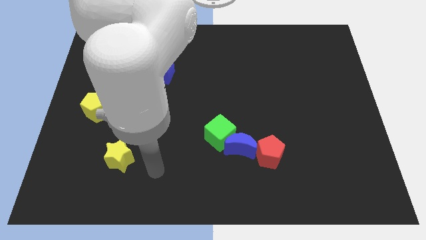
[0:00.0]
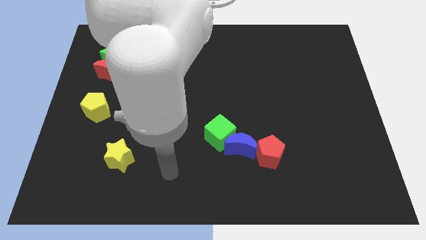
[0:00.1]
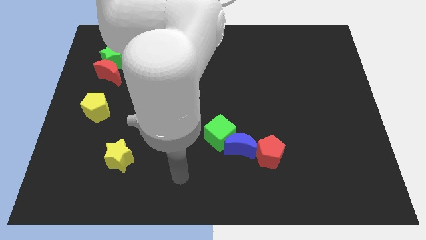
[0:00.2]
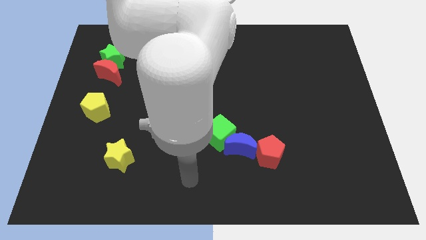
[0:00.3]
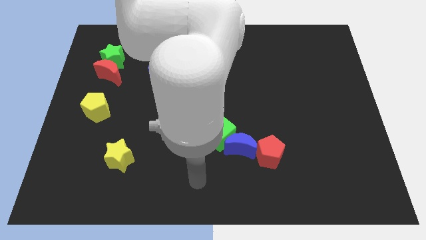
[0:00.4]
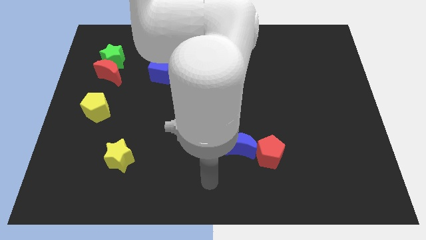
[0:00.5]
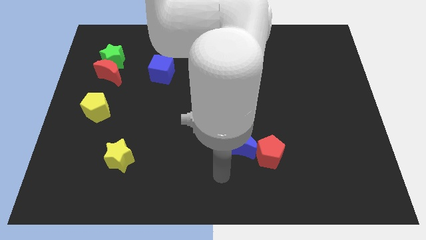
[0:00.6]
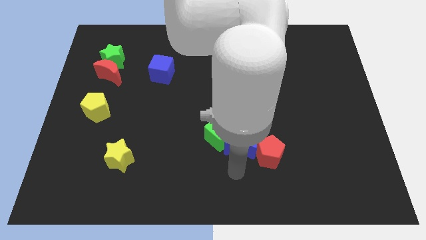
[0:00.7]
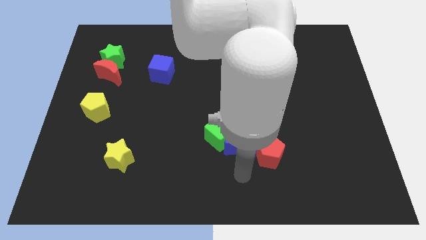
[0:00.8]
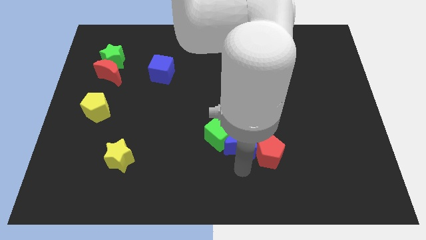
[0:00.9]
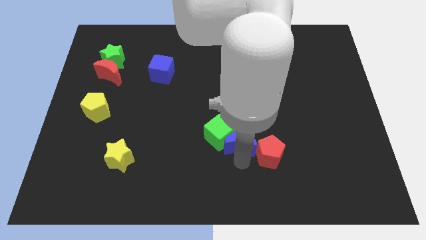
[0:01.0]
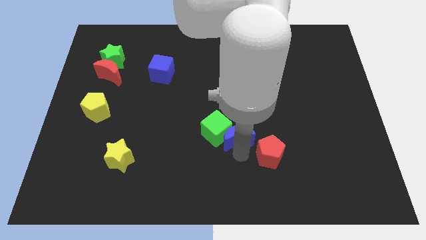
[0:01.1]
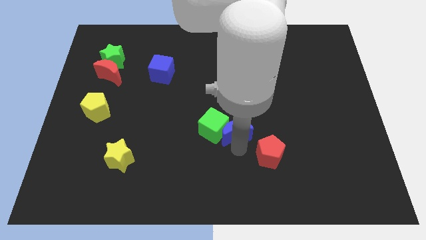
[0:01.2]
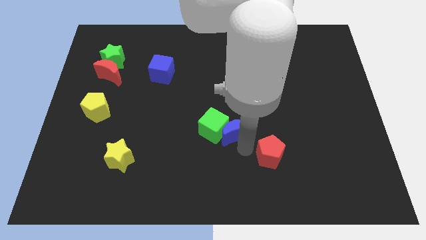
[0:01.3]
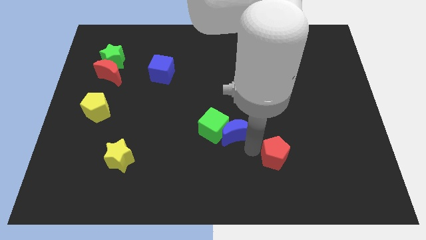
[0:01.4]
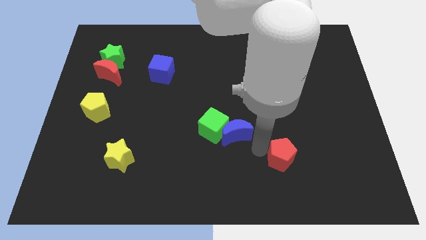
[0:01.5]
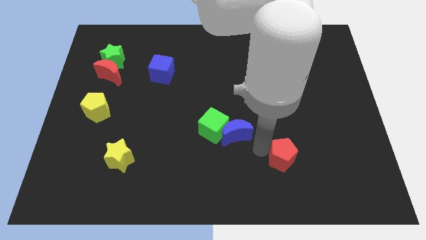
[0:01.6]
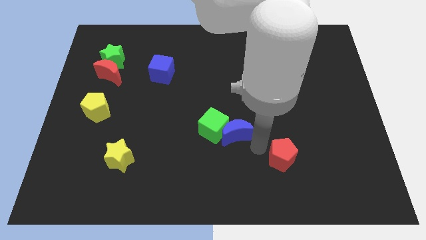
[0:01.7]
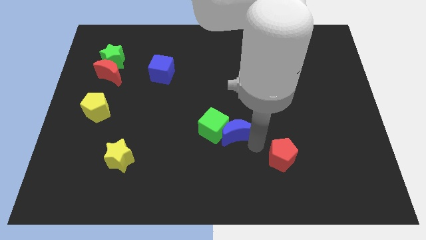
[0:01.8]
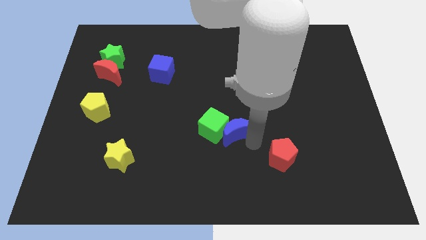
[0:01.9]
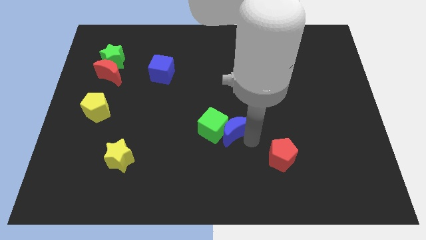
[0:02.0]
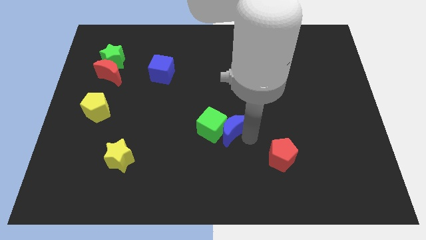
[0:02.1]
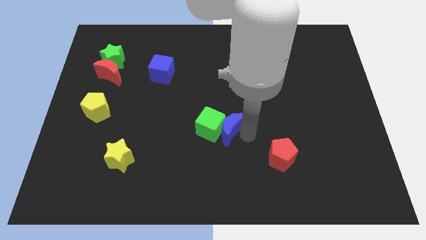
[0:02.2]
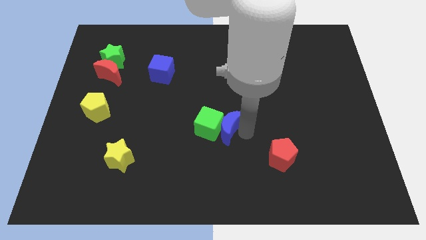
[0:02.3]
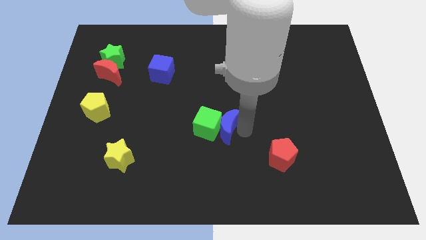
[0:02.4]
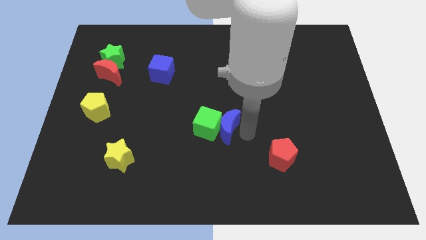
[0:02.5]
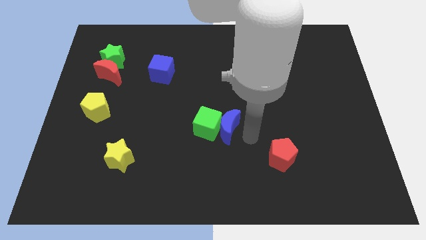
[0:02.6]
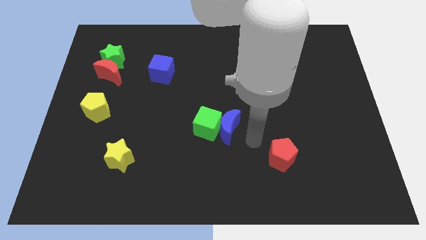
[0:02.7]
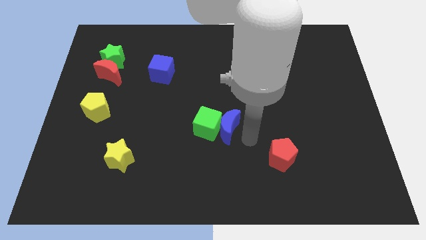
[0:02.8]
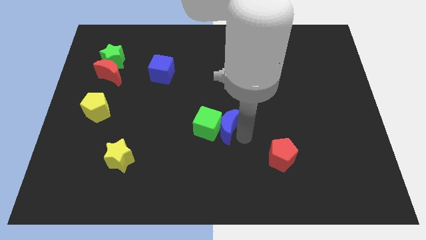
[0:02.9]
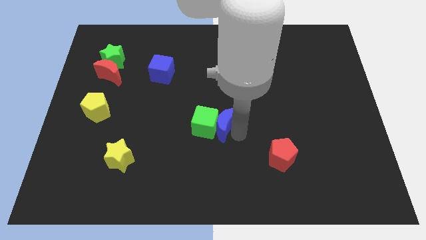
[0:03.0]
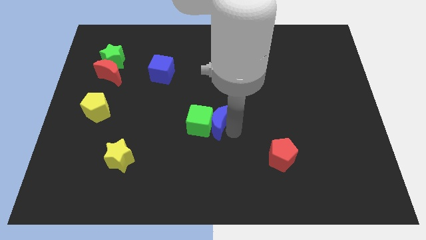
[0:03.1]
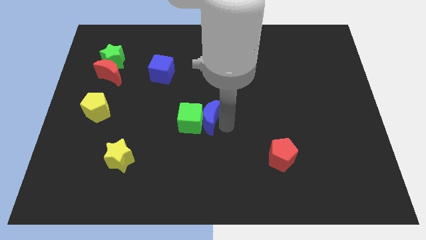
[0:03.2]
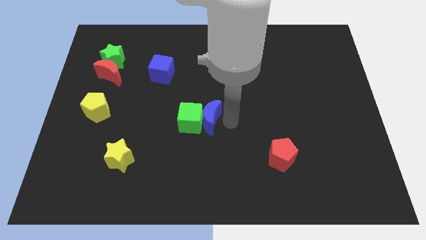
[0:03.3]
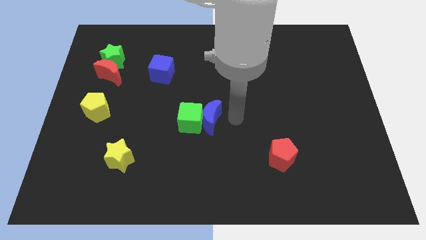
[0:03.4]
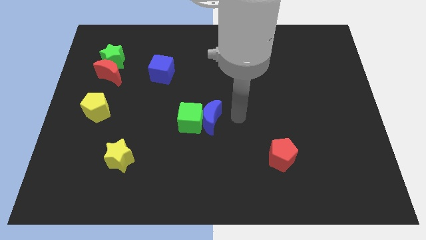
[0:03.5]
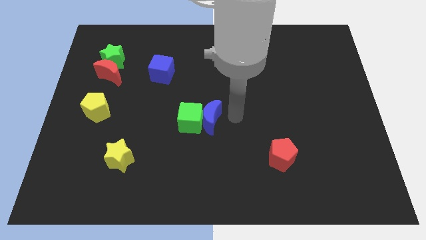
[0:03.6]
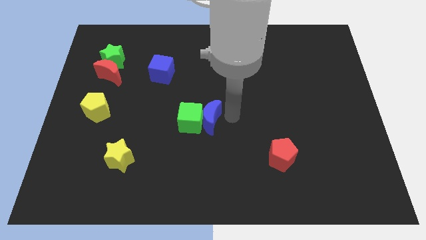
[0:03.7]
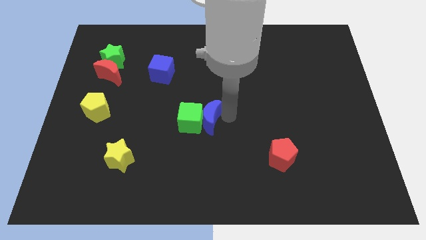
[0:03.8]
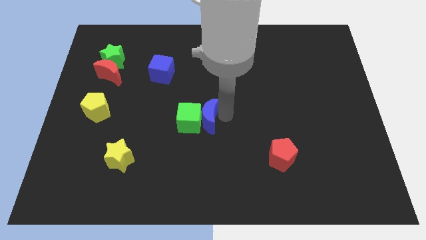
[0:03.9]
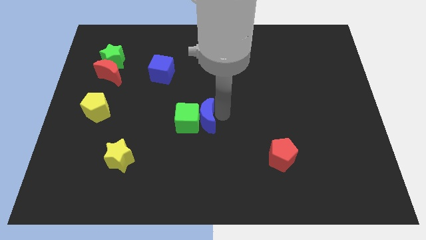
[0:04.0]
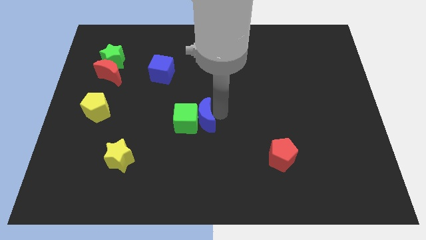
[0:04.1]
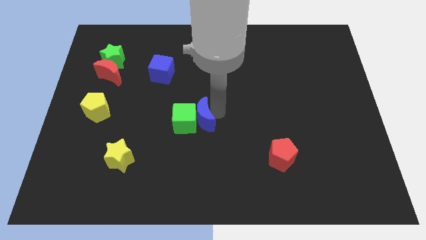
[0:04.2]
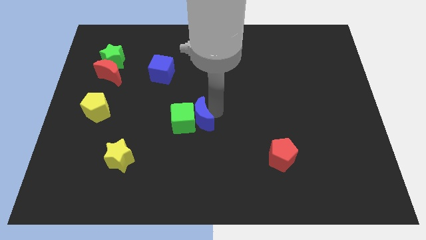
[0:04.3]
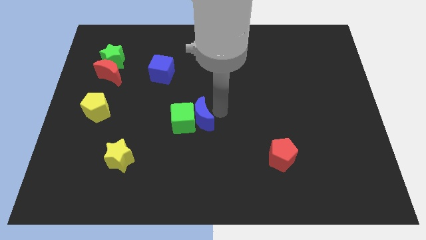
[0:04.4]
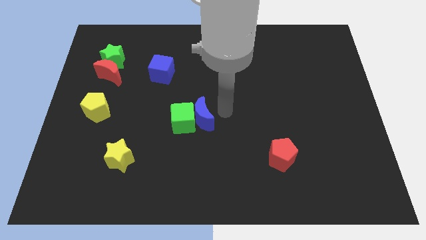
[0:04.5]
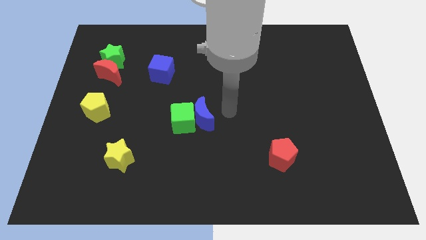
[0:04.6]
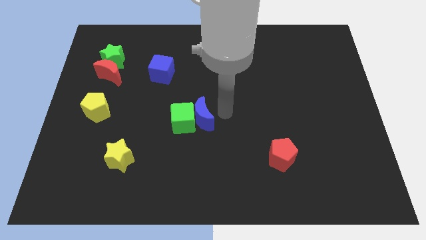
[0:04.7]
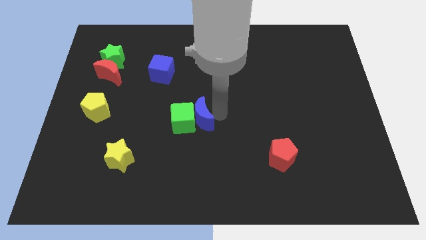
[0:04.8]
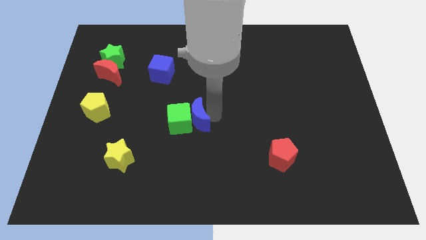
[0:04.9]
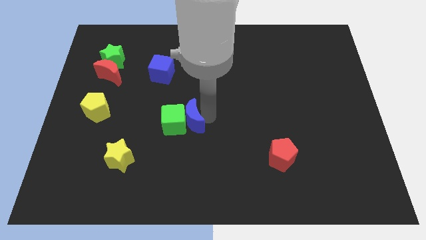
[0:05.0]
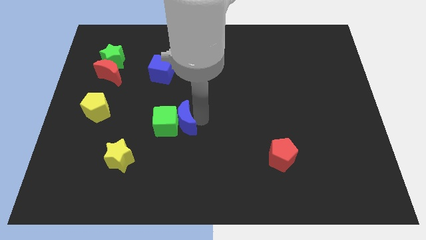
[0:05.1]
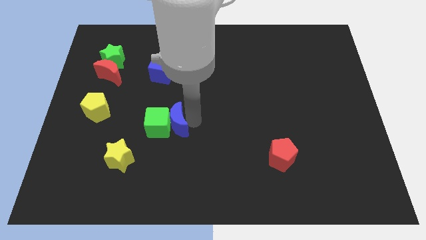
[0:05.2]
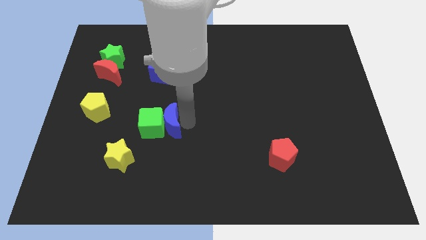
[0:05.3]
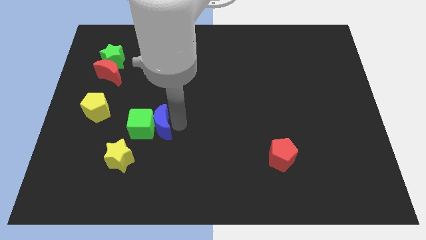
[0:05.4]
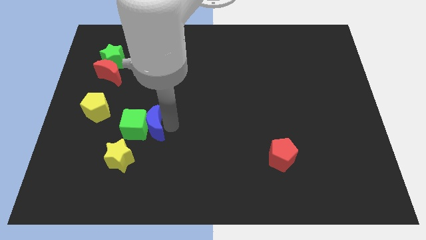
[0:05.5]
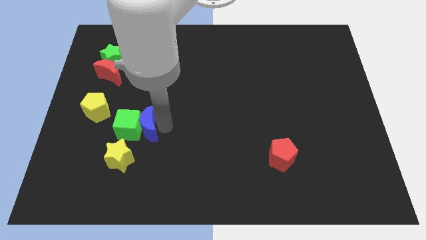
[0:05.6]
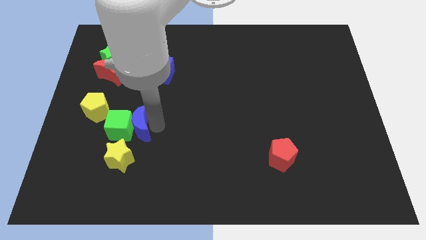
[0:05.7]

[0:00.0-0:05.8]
slide the blue moon to the left

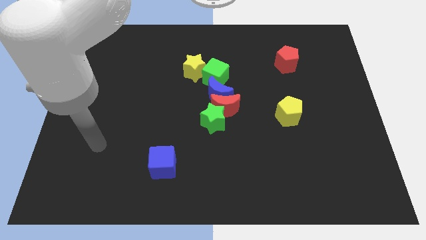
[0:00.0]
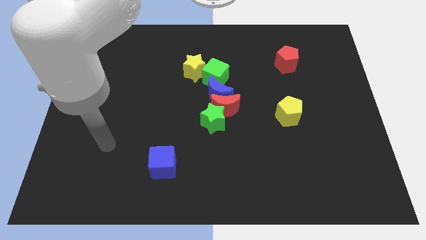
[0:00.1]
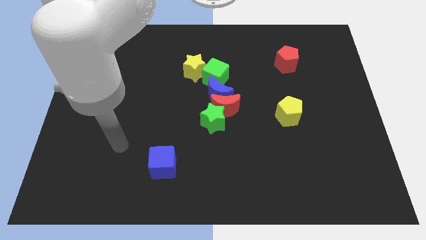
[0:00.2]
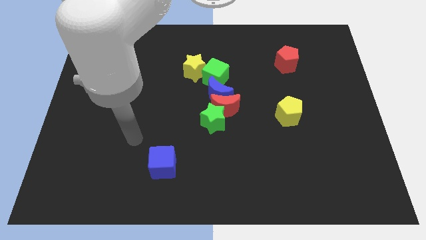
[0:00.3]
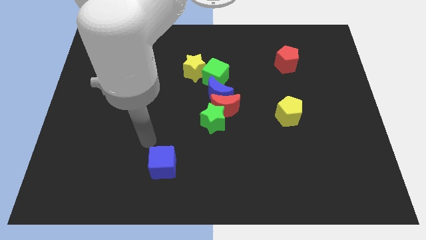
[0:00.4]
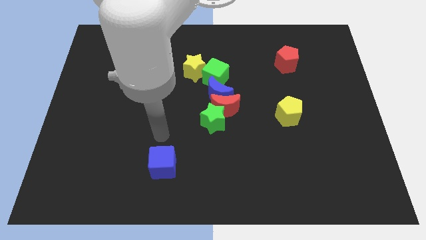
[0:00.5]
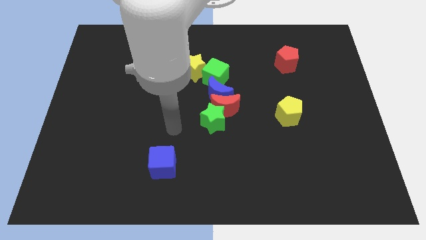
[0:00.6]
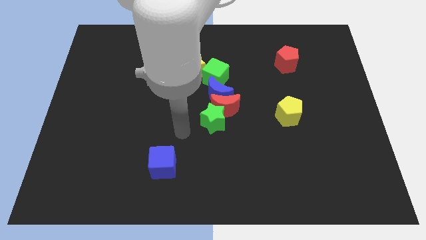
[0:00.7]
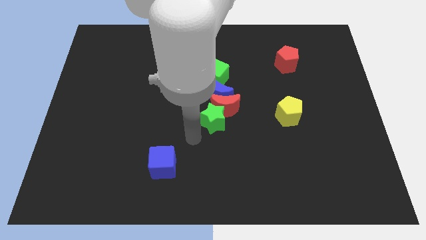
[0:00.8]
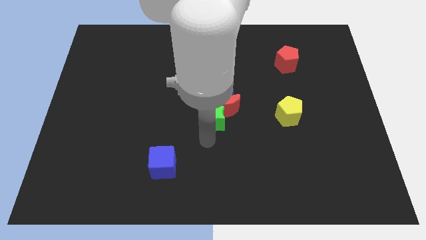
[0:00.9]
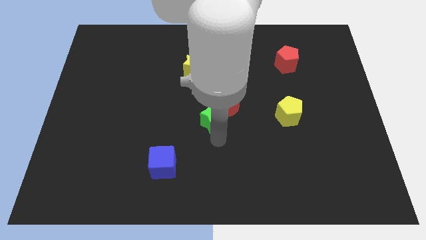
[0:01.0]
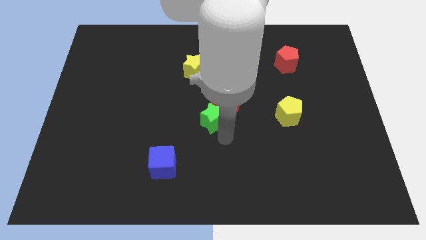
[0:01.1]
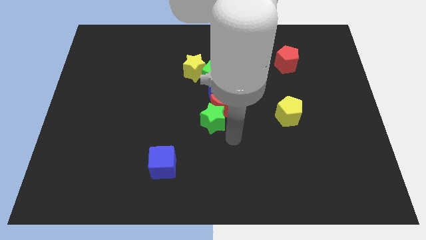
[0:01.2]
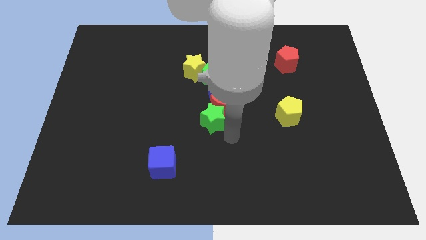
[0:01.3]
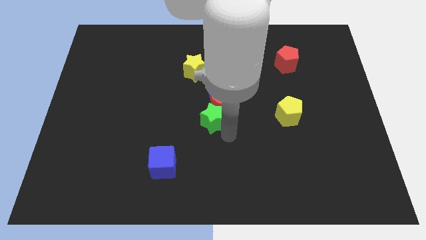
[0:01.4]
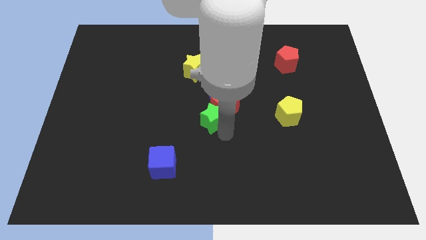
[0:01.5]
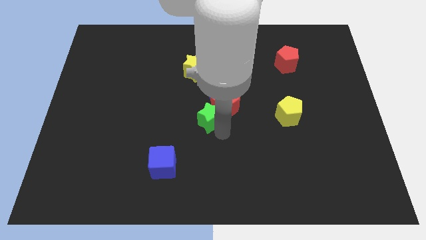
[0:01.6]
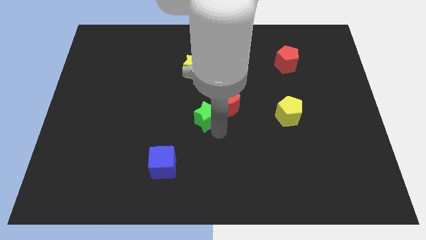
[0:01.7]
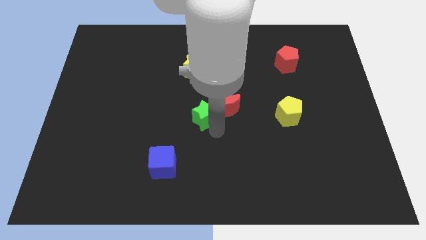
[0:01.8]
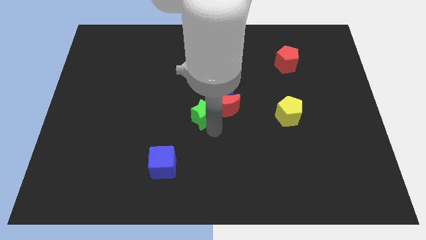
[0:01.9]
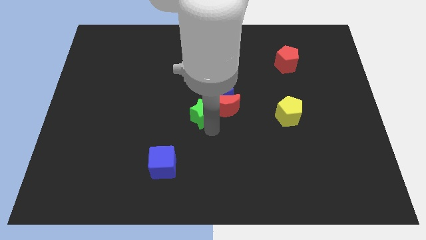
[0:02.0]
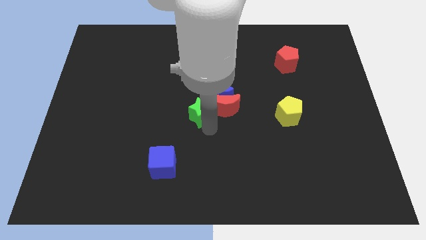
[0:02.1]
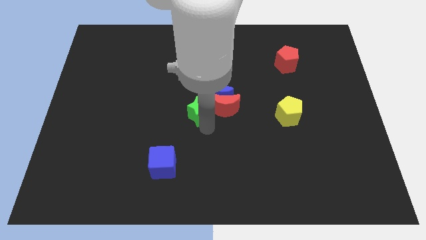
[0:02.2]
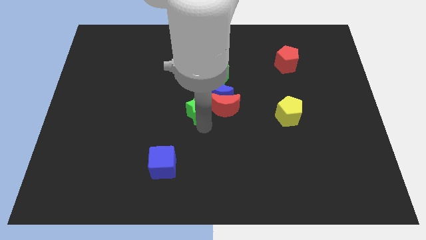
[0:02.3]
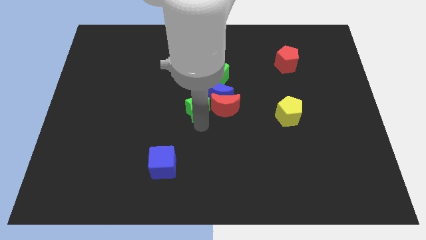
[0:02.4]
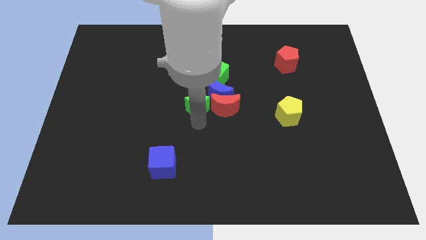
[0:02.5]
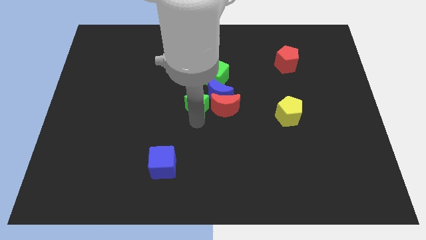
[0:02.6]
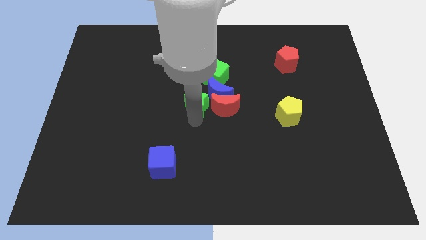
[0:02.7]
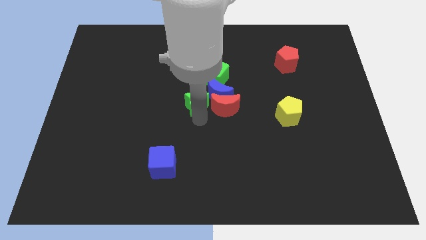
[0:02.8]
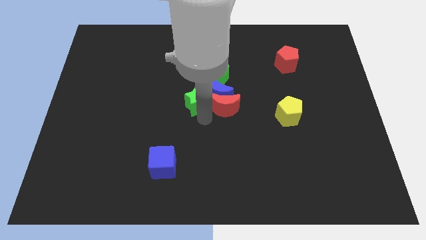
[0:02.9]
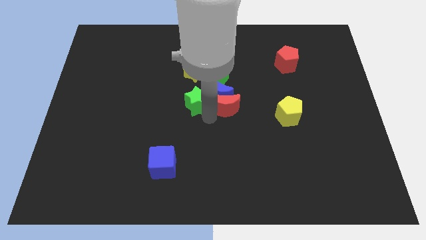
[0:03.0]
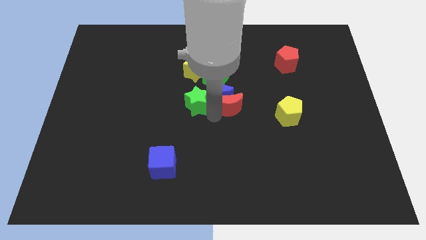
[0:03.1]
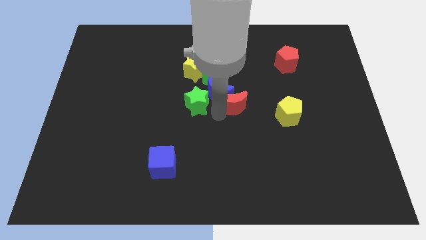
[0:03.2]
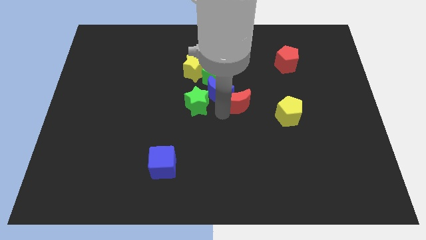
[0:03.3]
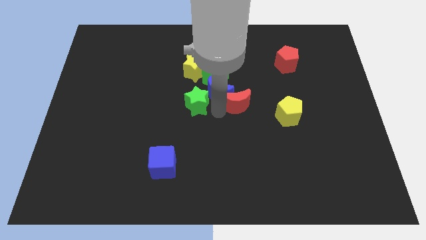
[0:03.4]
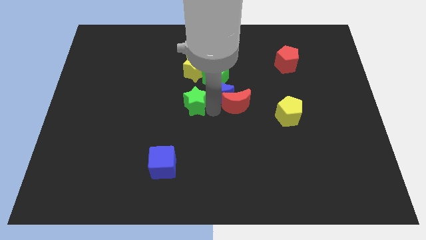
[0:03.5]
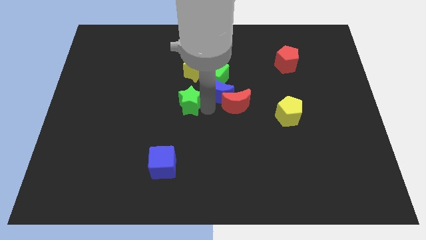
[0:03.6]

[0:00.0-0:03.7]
slide the green star a bit diagonally upwards and to the left
